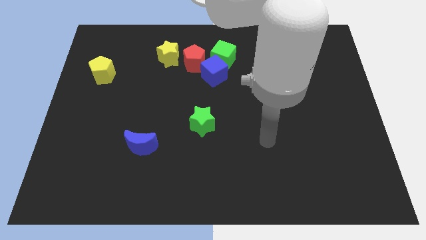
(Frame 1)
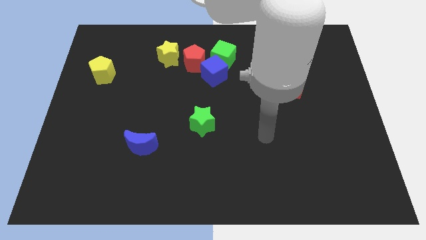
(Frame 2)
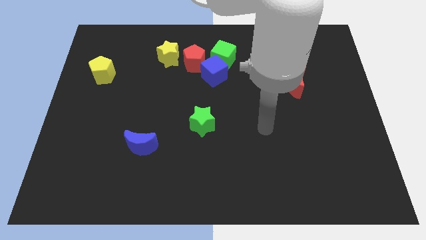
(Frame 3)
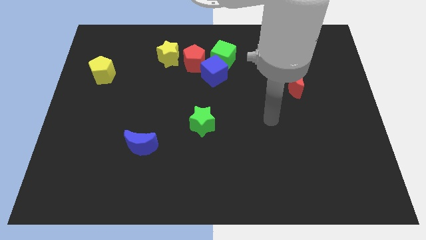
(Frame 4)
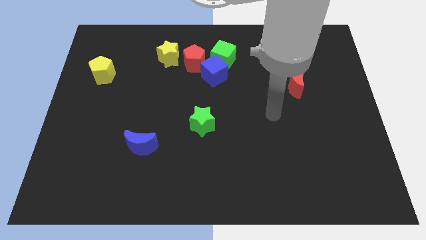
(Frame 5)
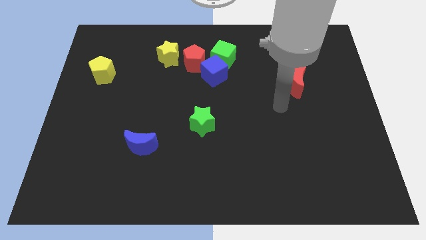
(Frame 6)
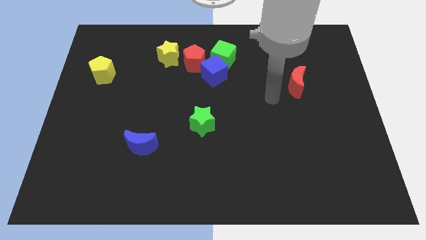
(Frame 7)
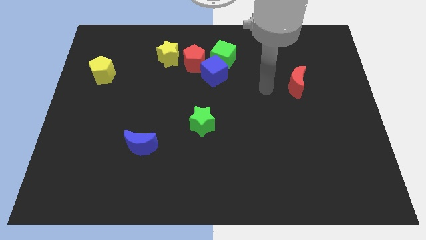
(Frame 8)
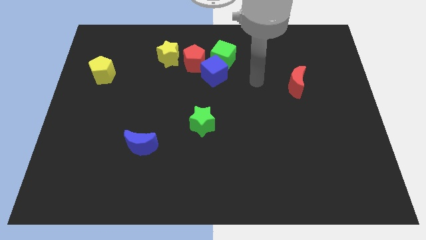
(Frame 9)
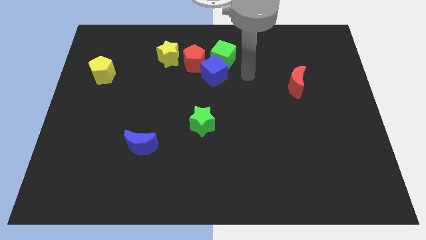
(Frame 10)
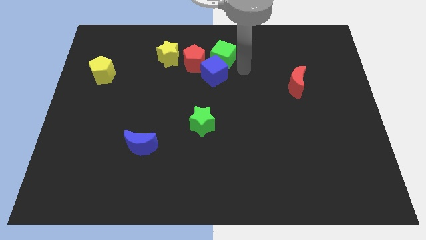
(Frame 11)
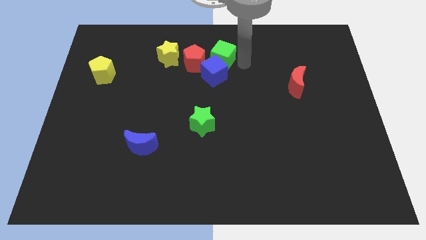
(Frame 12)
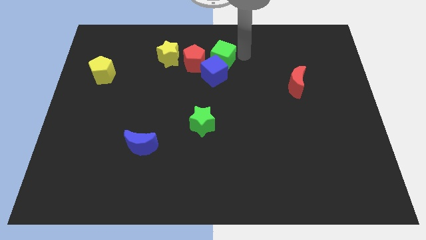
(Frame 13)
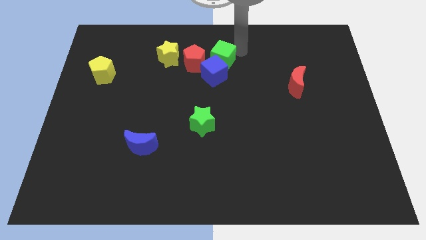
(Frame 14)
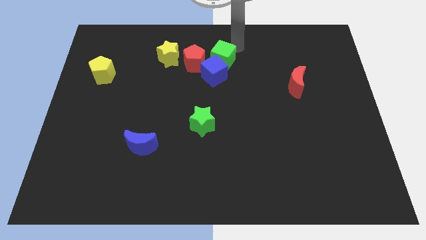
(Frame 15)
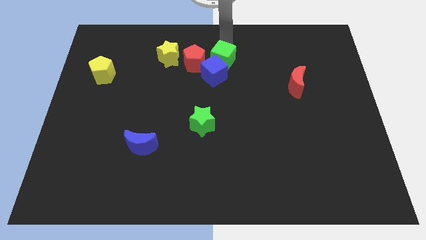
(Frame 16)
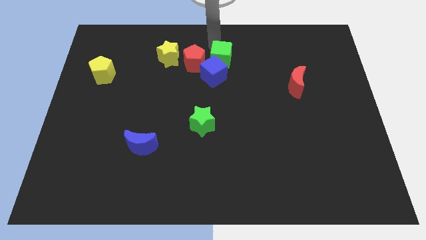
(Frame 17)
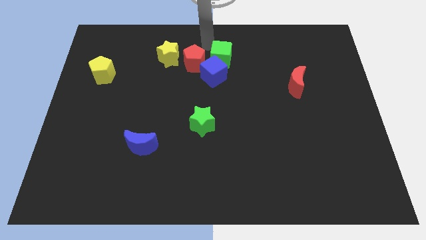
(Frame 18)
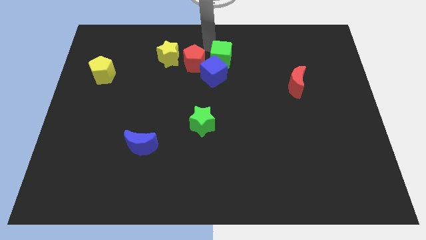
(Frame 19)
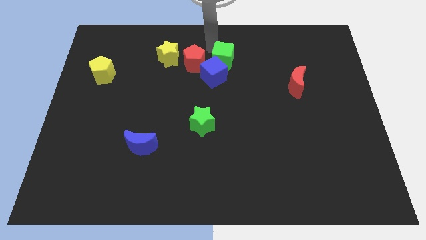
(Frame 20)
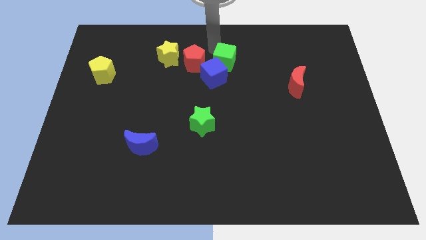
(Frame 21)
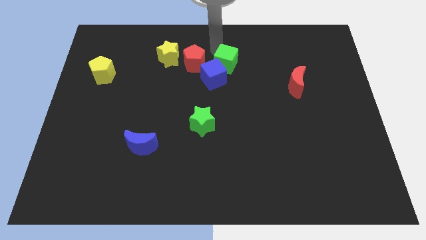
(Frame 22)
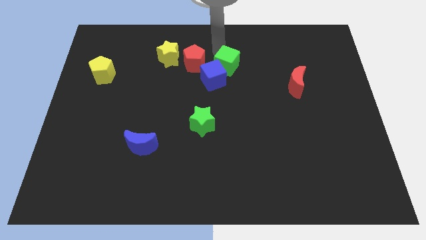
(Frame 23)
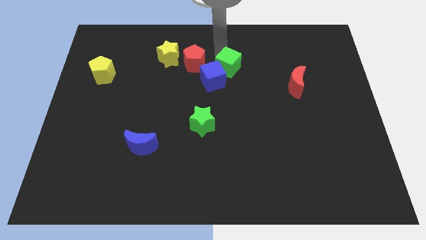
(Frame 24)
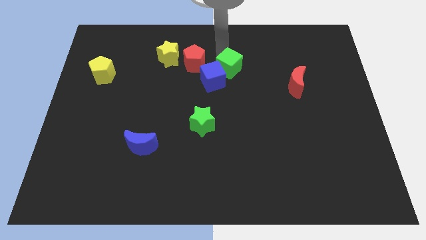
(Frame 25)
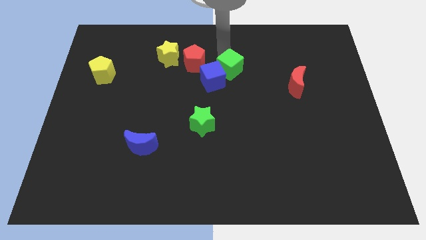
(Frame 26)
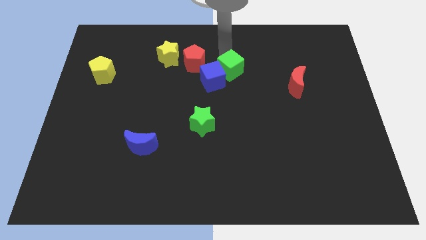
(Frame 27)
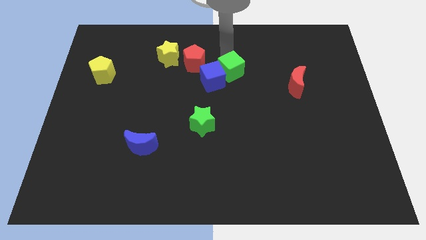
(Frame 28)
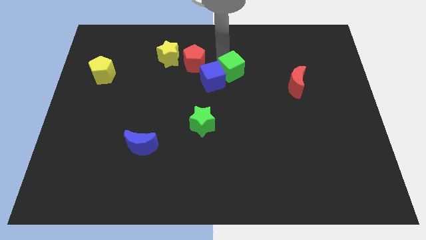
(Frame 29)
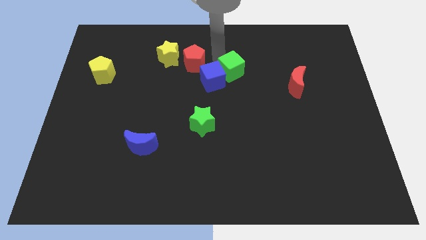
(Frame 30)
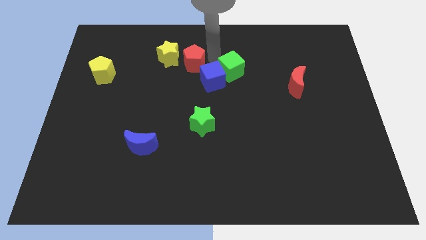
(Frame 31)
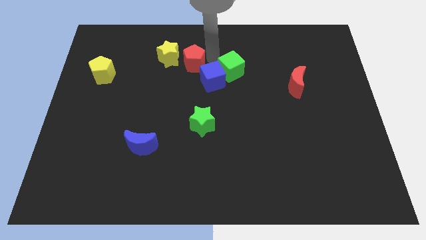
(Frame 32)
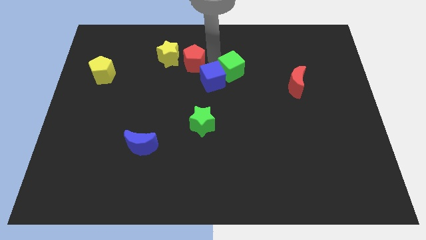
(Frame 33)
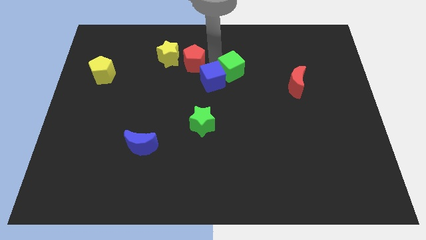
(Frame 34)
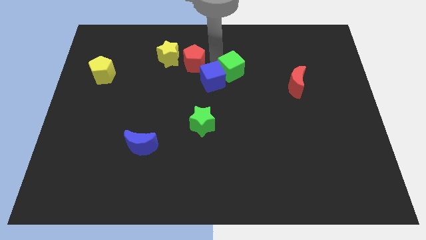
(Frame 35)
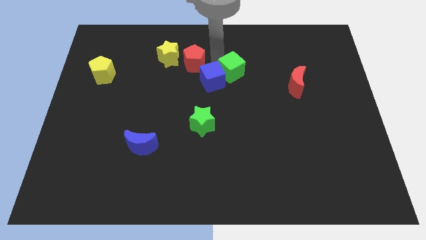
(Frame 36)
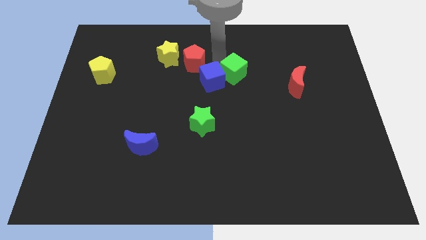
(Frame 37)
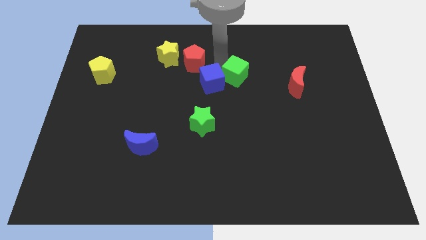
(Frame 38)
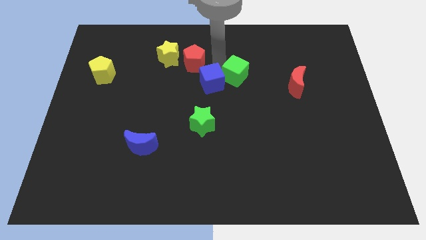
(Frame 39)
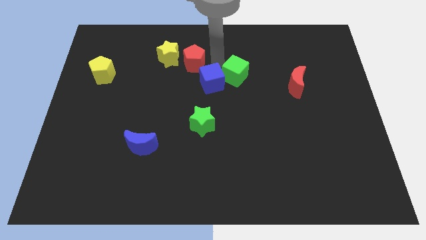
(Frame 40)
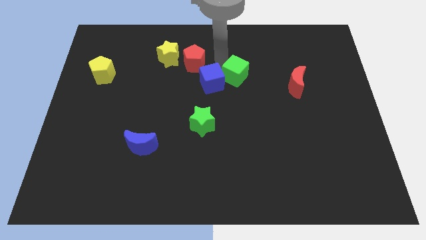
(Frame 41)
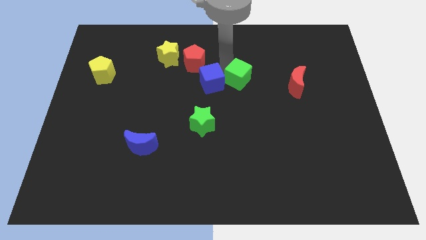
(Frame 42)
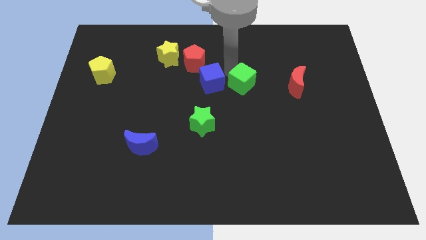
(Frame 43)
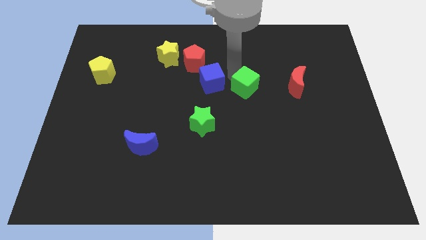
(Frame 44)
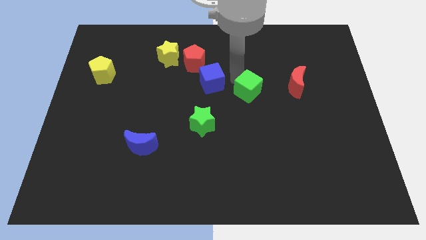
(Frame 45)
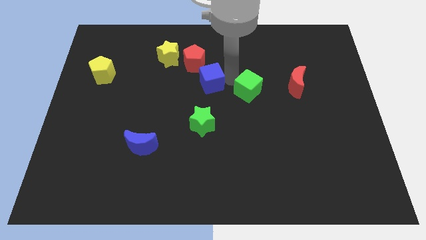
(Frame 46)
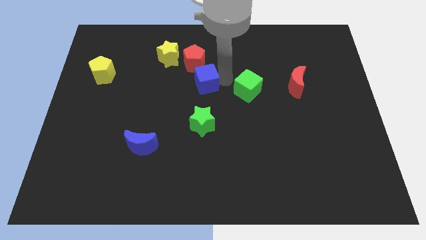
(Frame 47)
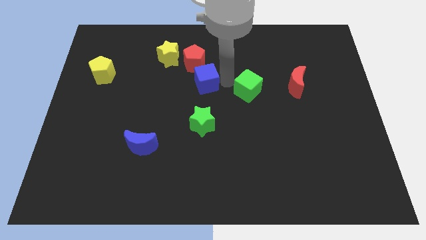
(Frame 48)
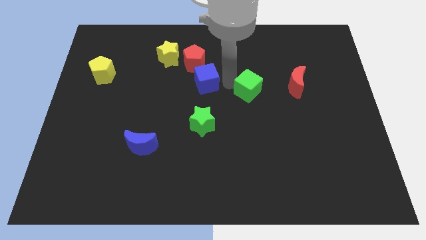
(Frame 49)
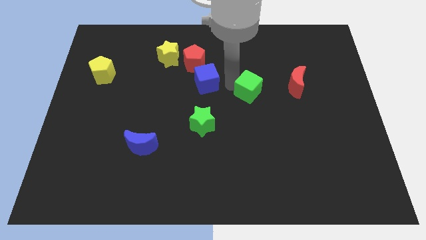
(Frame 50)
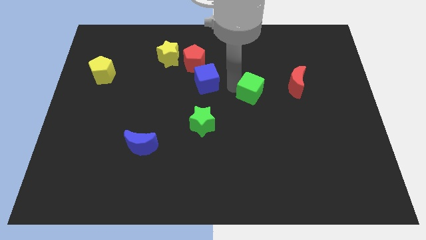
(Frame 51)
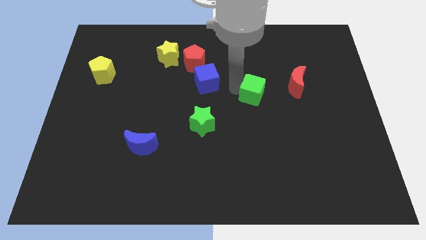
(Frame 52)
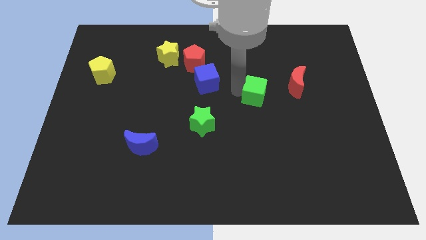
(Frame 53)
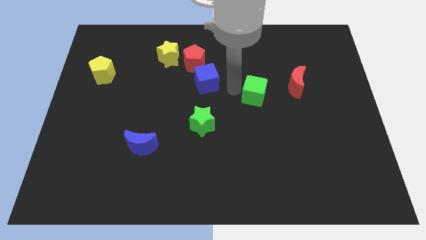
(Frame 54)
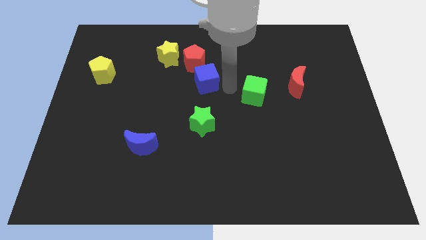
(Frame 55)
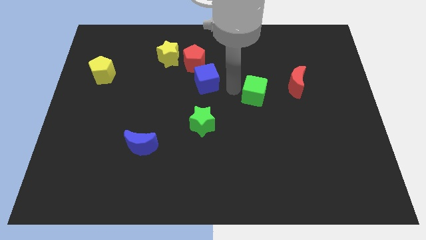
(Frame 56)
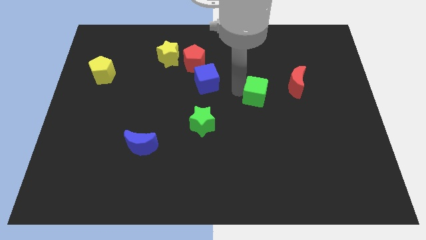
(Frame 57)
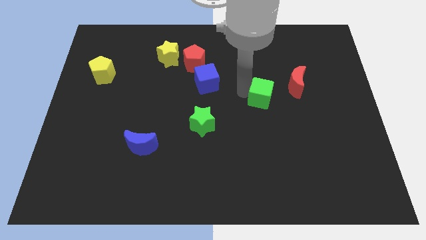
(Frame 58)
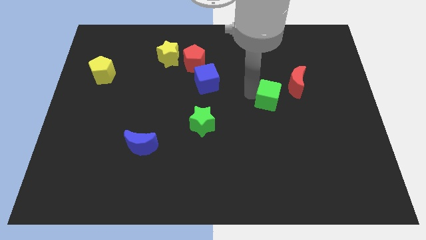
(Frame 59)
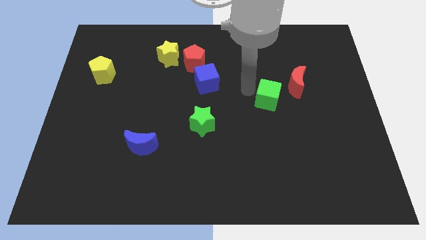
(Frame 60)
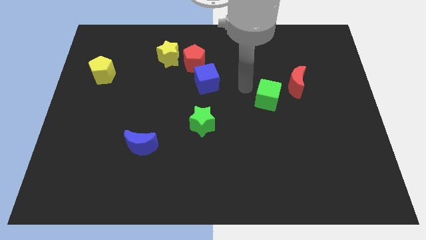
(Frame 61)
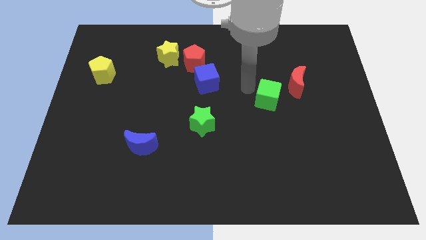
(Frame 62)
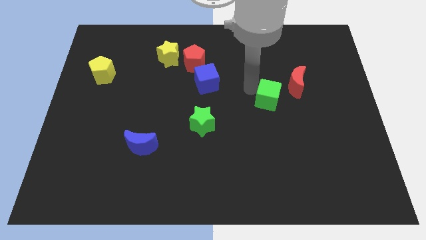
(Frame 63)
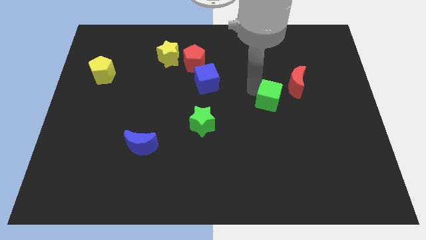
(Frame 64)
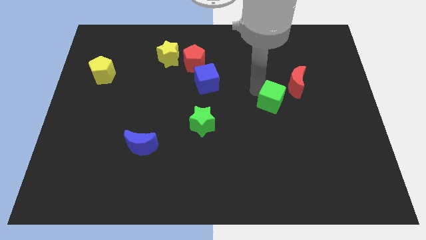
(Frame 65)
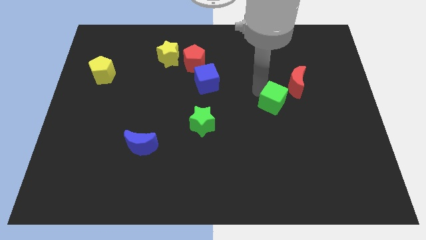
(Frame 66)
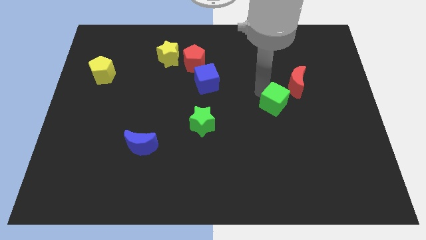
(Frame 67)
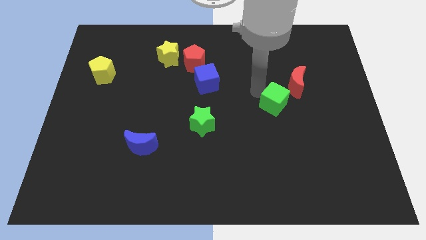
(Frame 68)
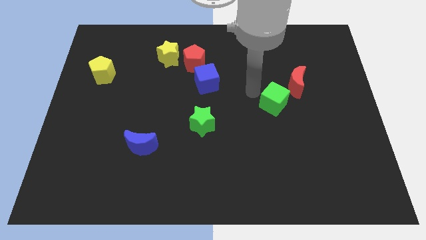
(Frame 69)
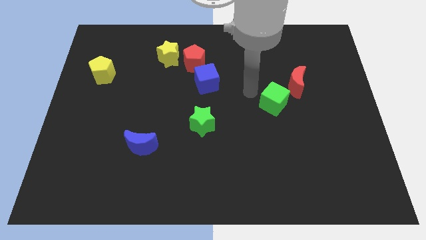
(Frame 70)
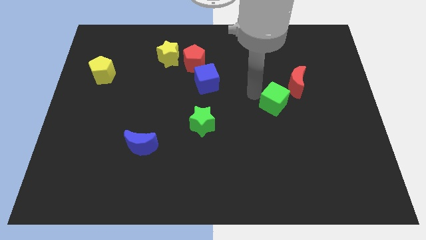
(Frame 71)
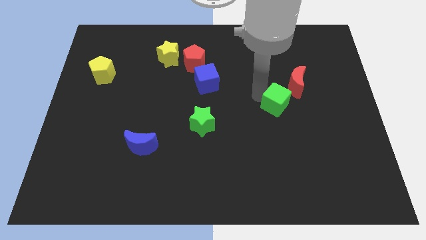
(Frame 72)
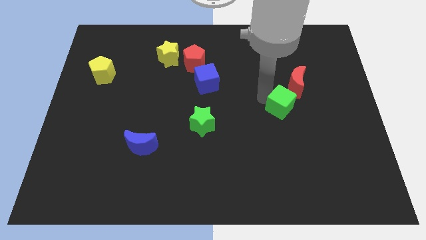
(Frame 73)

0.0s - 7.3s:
push the green cube downwards and then right

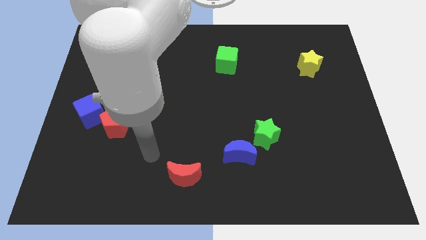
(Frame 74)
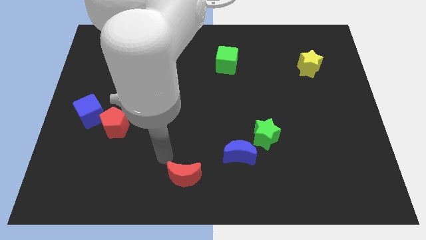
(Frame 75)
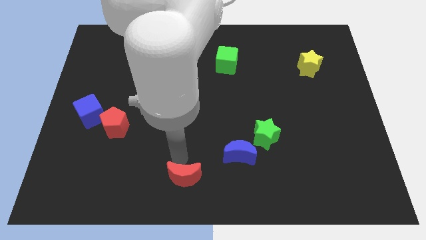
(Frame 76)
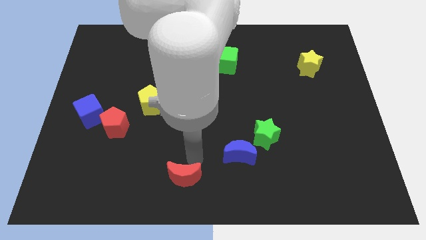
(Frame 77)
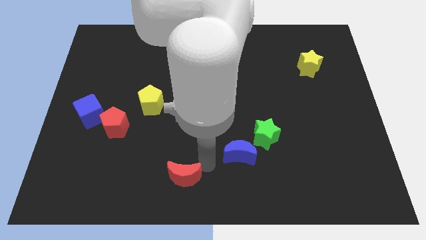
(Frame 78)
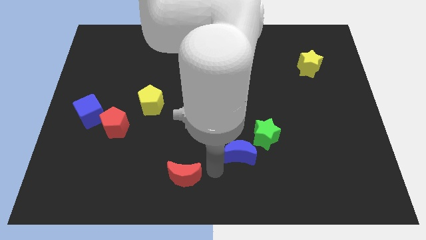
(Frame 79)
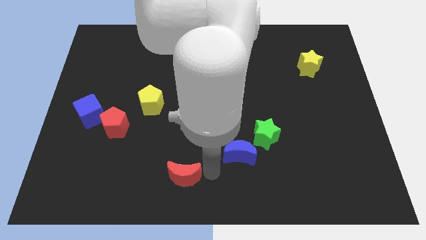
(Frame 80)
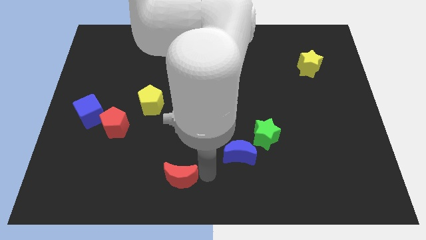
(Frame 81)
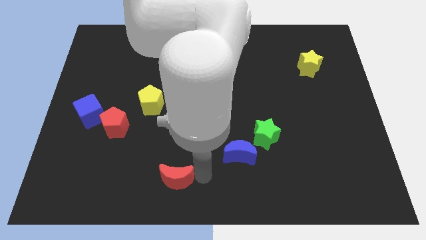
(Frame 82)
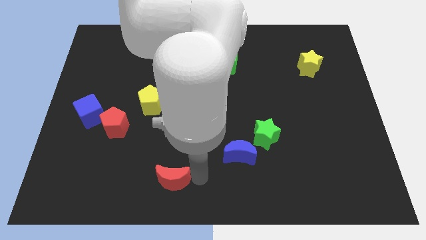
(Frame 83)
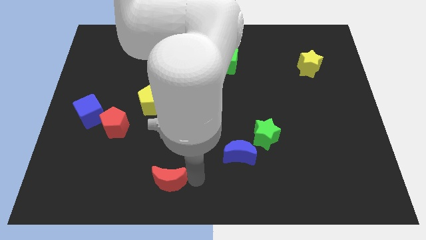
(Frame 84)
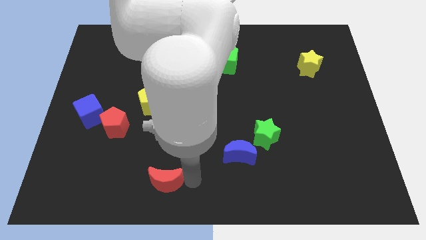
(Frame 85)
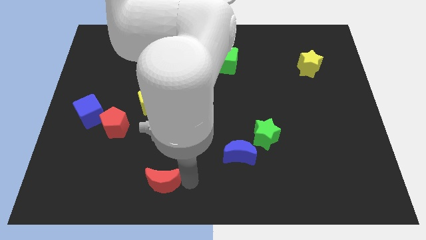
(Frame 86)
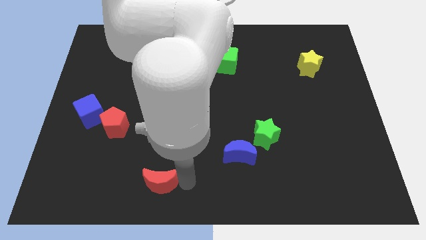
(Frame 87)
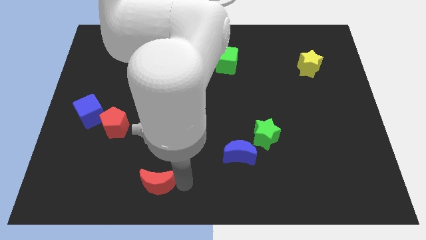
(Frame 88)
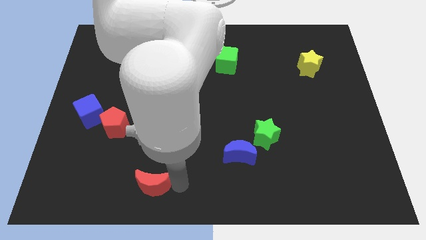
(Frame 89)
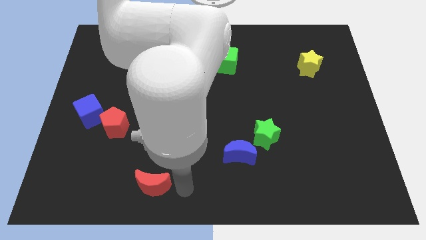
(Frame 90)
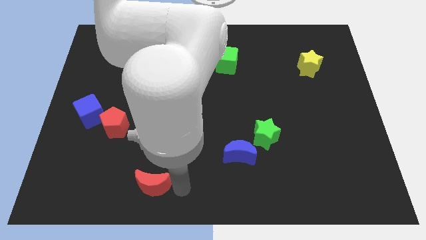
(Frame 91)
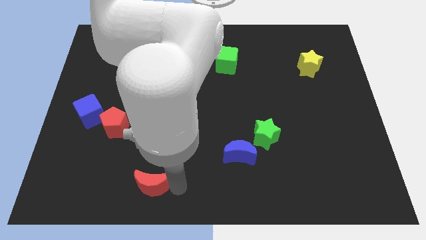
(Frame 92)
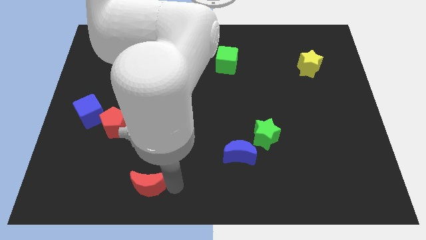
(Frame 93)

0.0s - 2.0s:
move the red moon a little to the left
